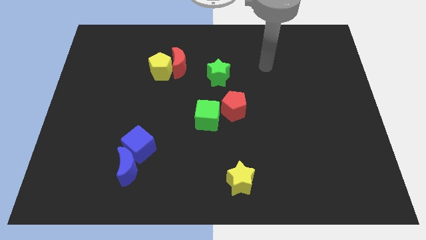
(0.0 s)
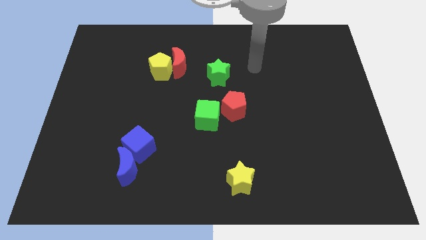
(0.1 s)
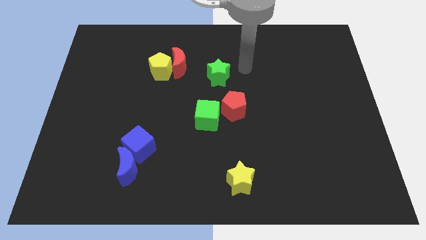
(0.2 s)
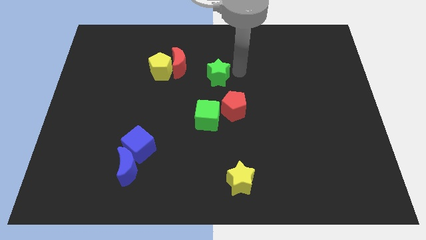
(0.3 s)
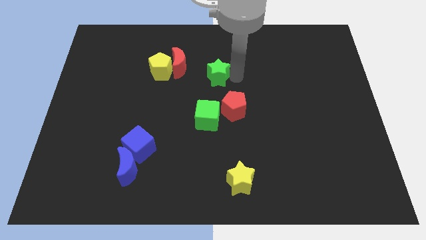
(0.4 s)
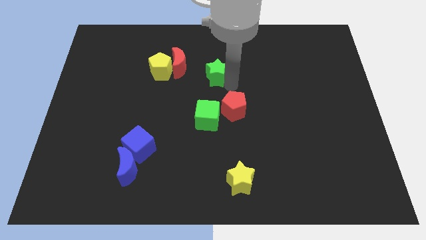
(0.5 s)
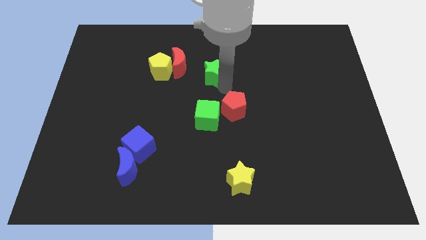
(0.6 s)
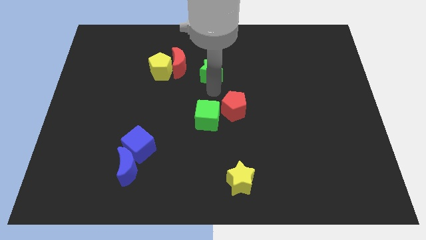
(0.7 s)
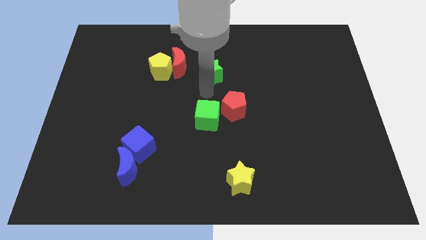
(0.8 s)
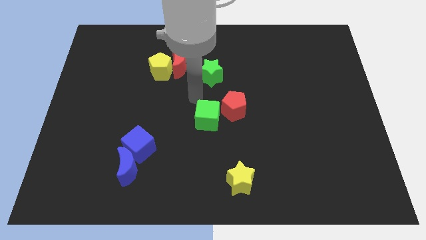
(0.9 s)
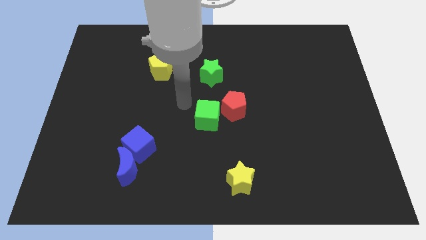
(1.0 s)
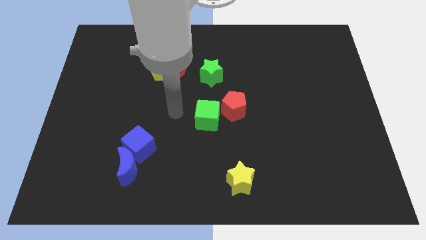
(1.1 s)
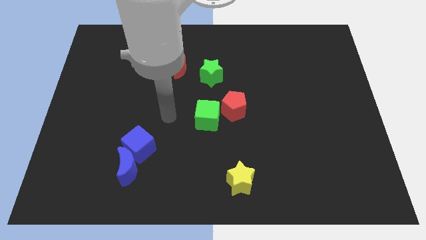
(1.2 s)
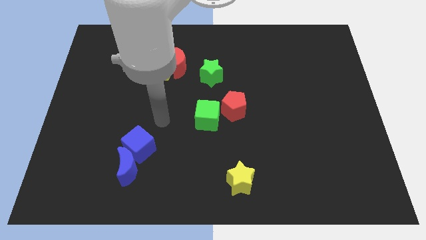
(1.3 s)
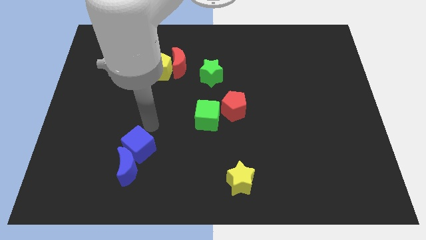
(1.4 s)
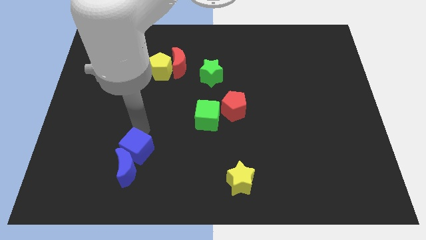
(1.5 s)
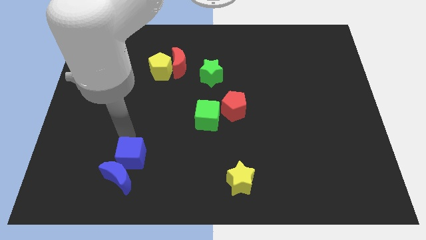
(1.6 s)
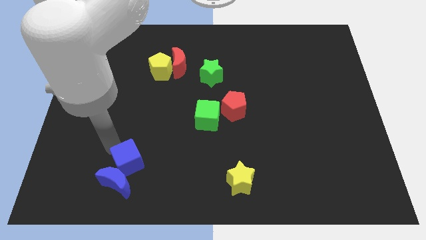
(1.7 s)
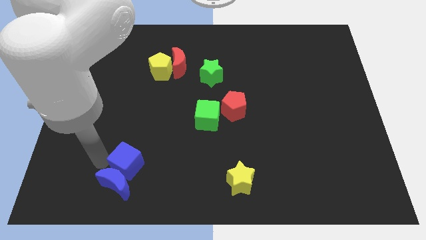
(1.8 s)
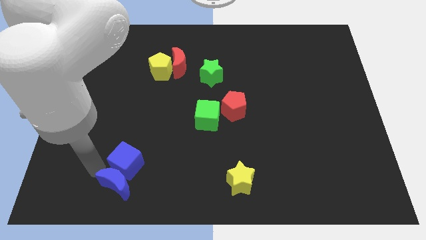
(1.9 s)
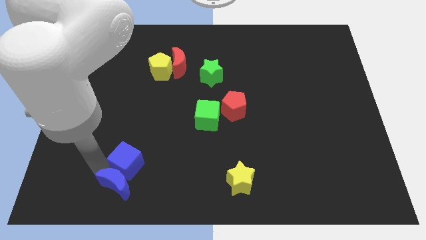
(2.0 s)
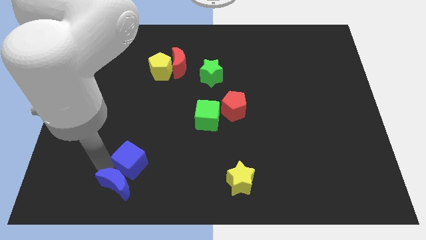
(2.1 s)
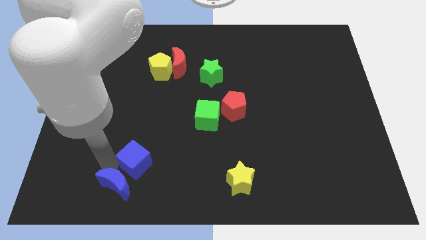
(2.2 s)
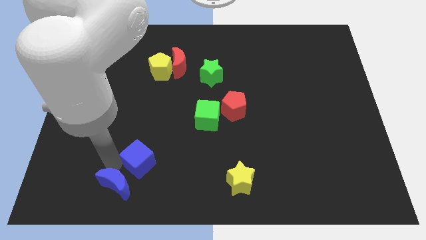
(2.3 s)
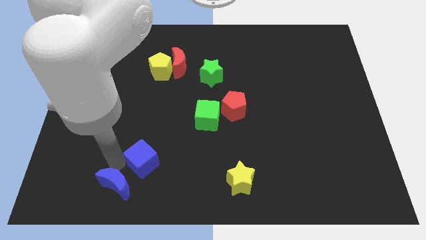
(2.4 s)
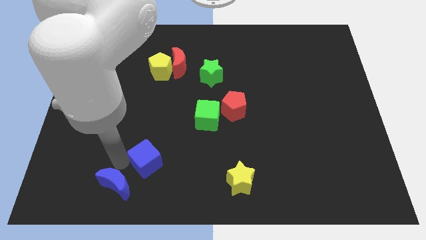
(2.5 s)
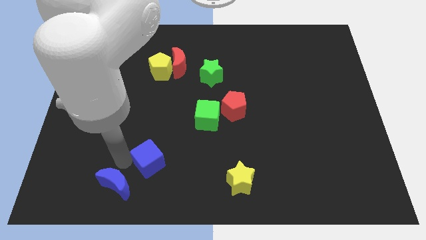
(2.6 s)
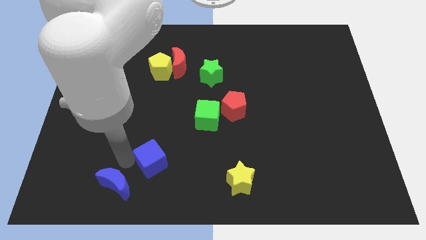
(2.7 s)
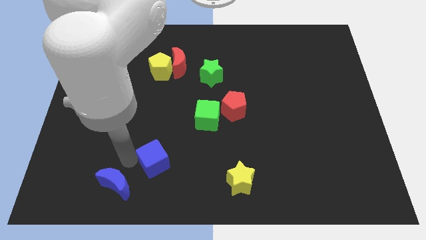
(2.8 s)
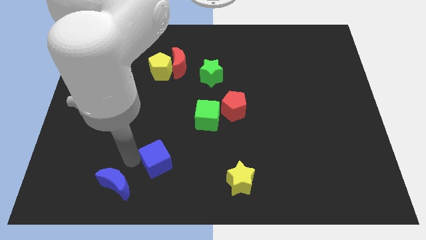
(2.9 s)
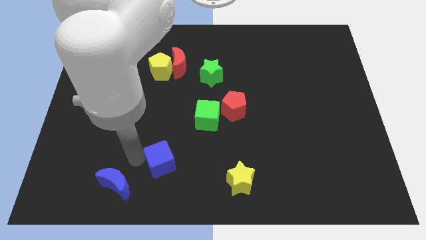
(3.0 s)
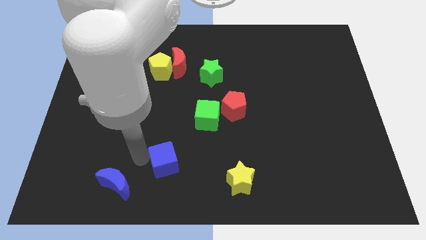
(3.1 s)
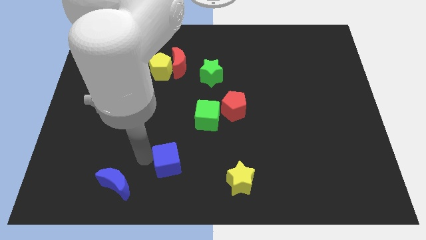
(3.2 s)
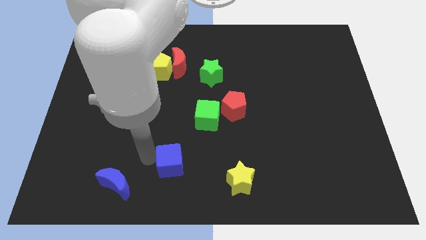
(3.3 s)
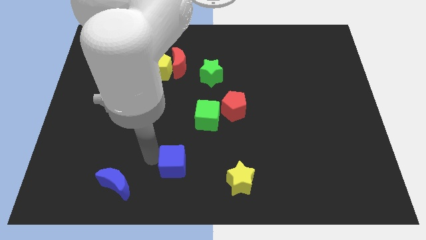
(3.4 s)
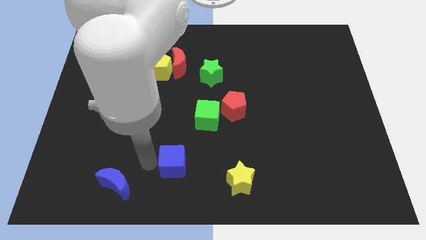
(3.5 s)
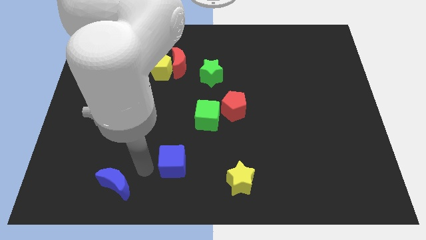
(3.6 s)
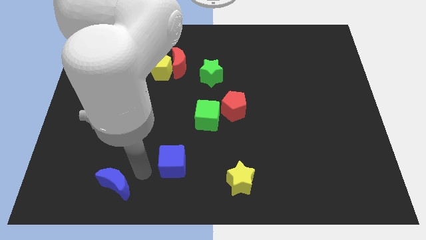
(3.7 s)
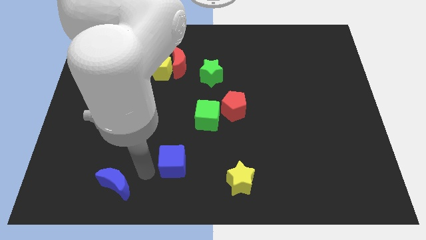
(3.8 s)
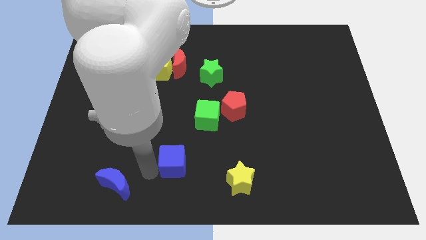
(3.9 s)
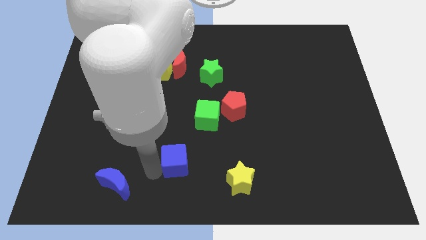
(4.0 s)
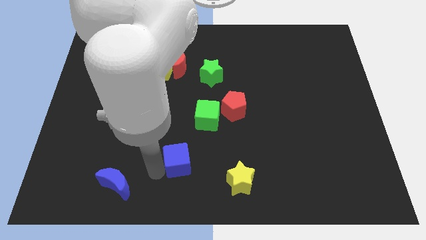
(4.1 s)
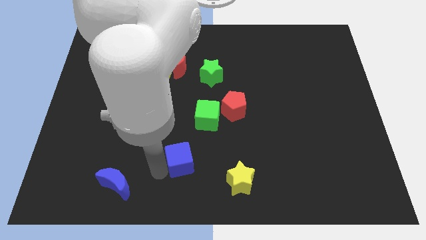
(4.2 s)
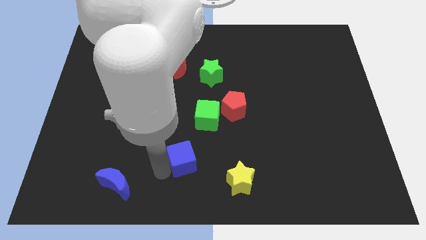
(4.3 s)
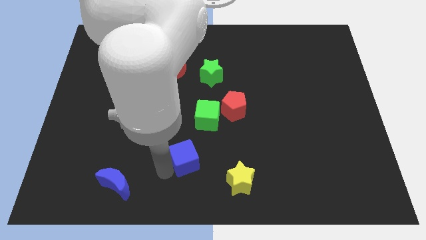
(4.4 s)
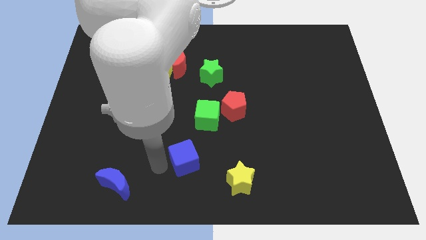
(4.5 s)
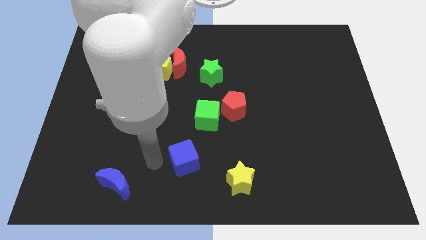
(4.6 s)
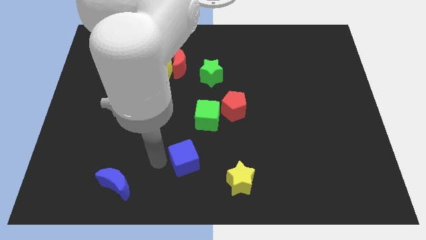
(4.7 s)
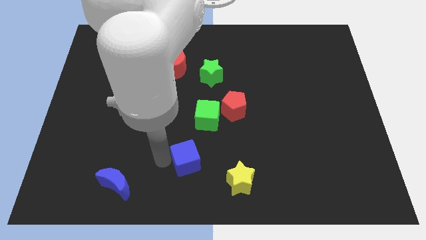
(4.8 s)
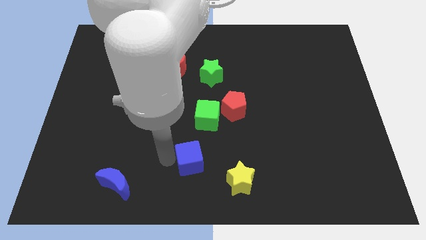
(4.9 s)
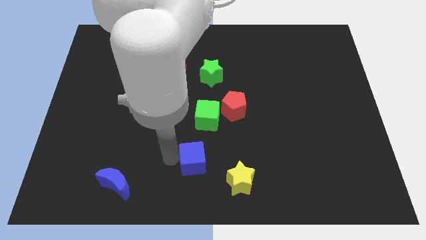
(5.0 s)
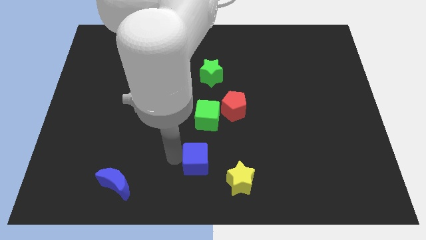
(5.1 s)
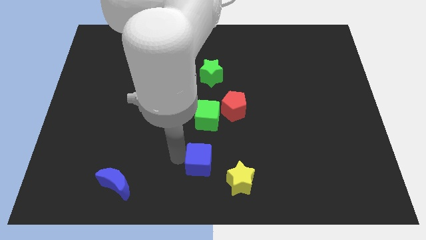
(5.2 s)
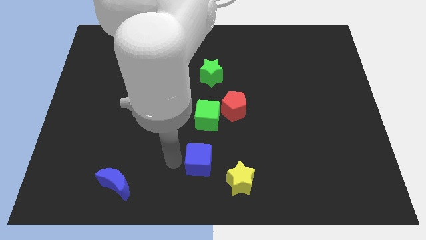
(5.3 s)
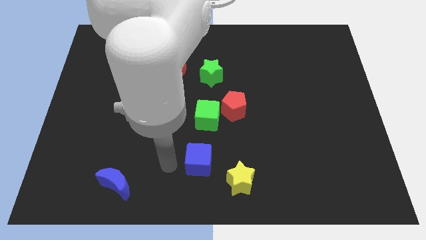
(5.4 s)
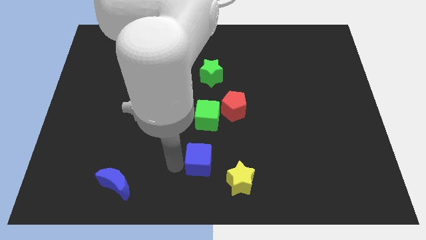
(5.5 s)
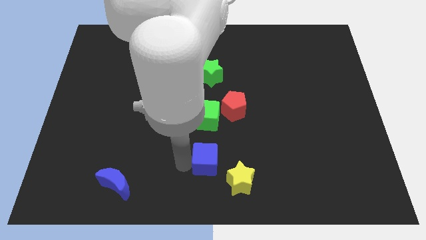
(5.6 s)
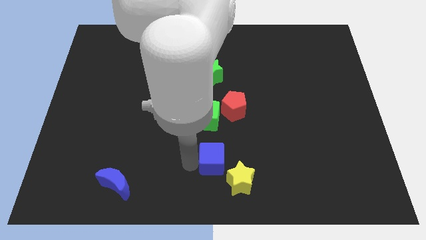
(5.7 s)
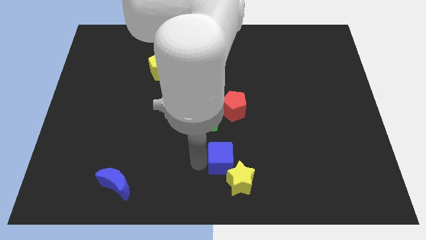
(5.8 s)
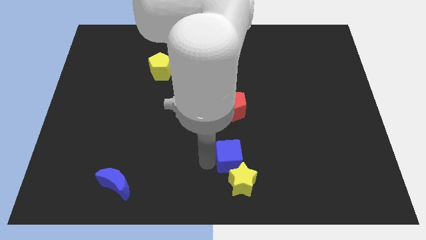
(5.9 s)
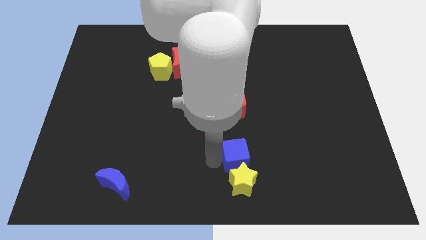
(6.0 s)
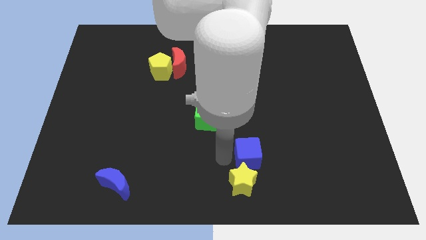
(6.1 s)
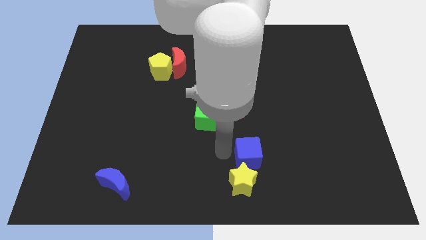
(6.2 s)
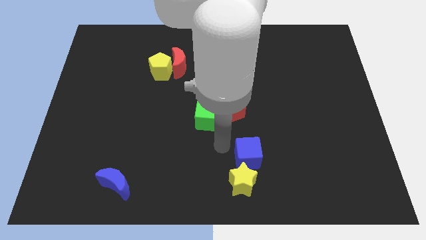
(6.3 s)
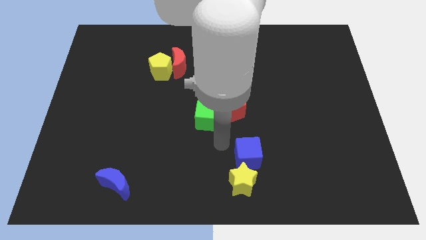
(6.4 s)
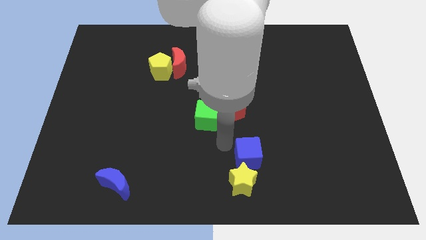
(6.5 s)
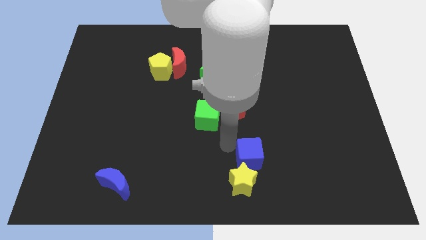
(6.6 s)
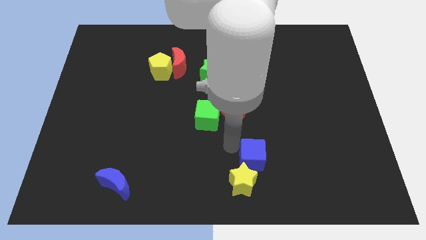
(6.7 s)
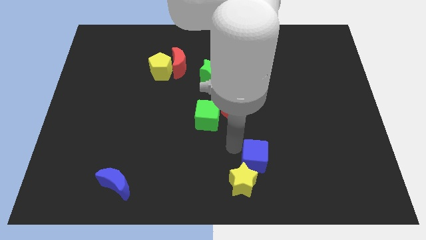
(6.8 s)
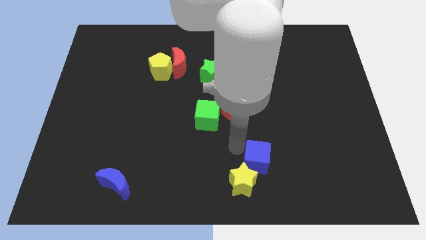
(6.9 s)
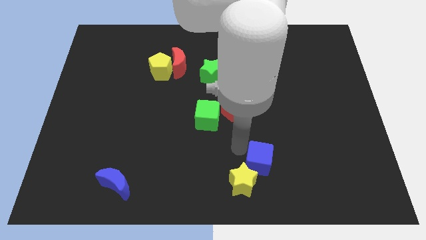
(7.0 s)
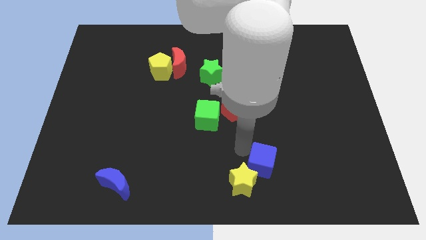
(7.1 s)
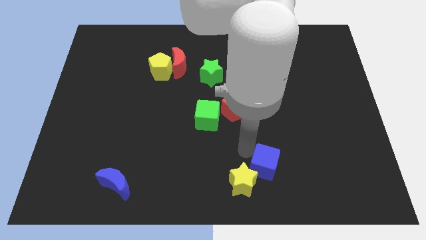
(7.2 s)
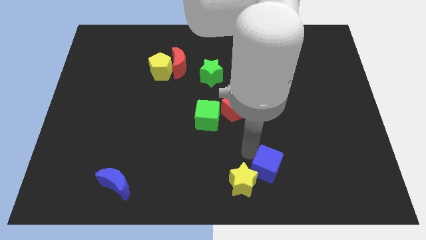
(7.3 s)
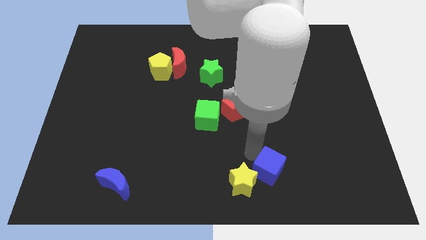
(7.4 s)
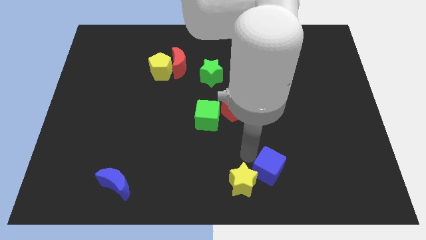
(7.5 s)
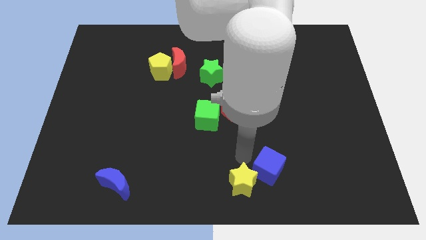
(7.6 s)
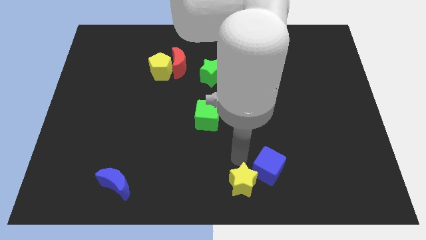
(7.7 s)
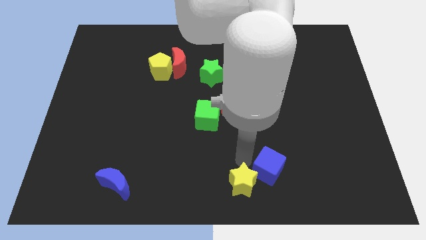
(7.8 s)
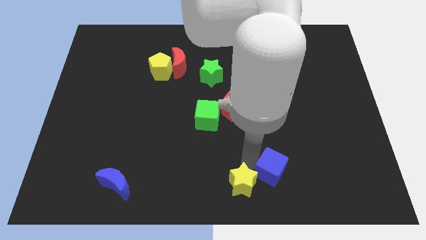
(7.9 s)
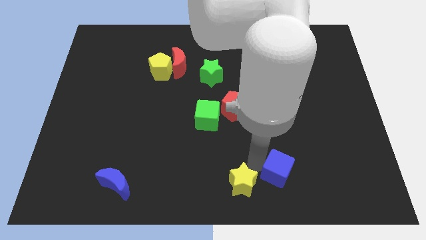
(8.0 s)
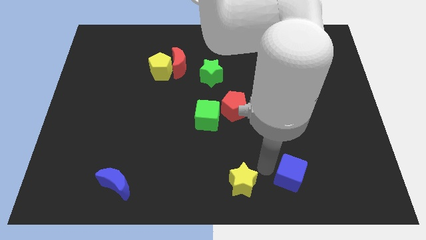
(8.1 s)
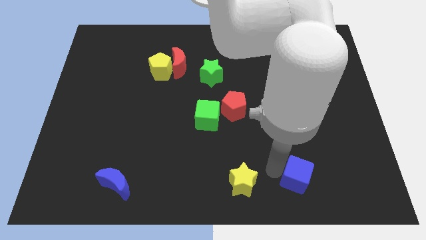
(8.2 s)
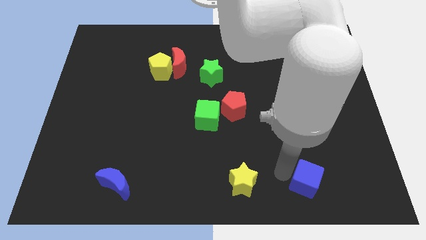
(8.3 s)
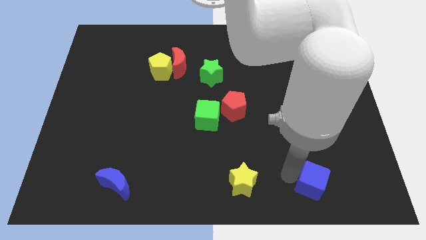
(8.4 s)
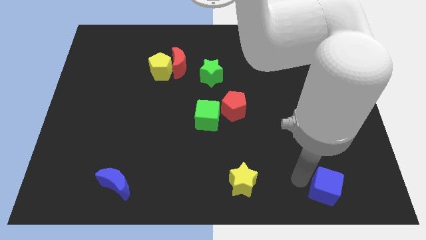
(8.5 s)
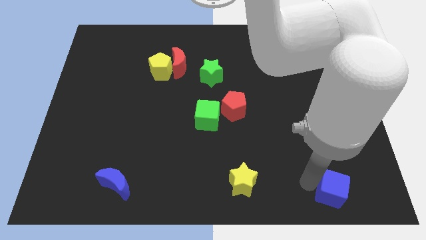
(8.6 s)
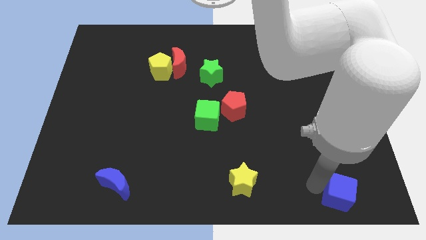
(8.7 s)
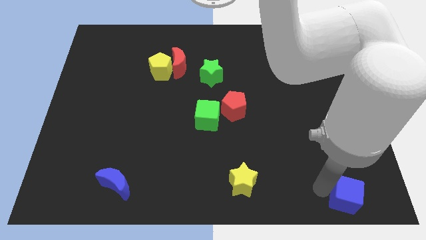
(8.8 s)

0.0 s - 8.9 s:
slide the blue cube to the lower right corner
